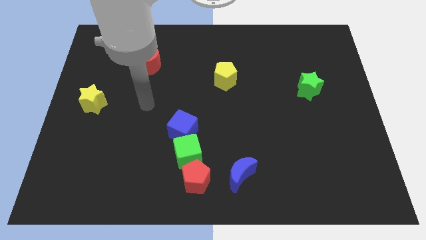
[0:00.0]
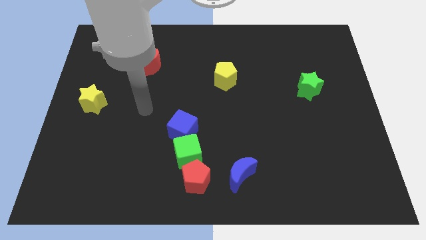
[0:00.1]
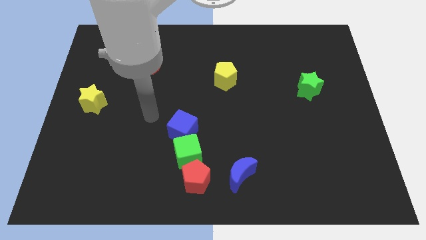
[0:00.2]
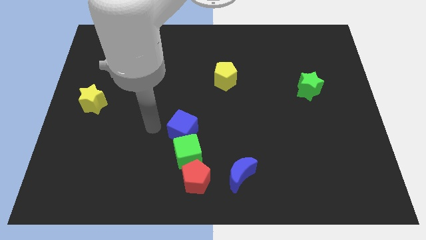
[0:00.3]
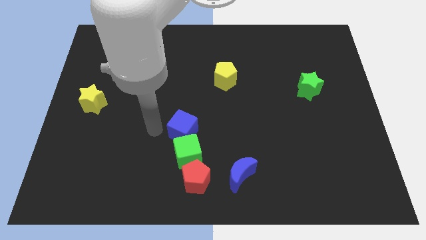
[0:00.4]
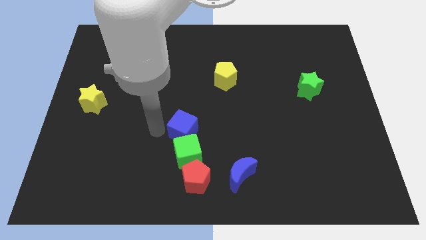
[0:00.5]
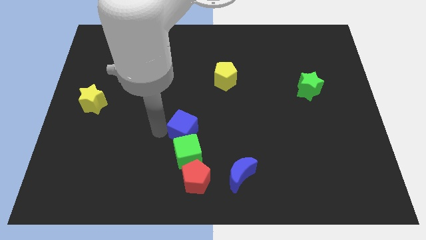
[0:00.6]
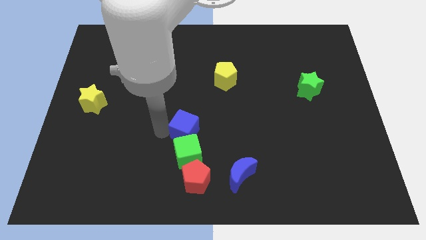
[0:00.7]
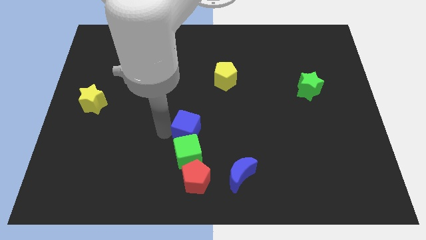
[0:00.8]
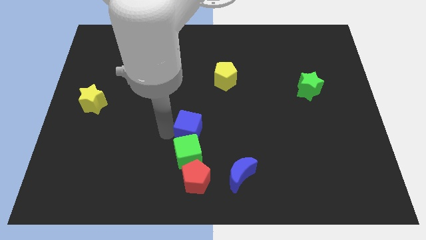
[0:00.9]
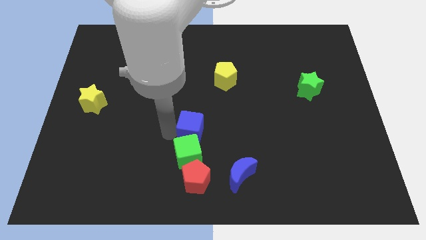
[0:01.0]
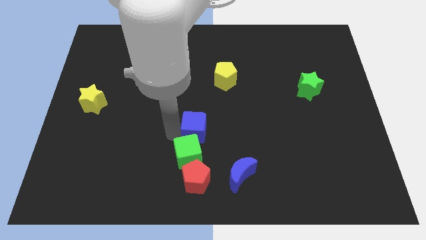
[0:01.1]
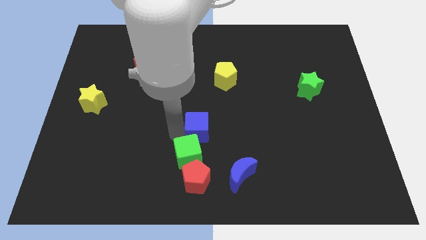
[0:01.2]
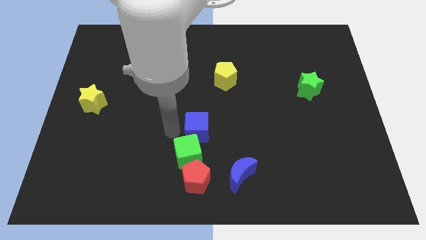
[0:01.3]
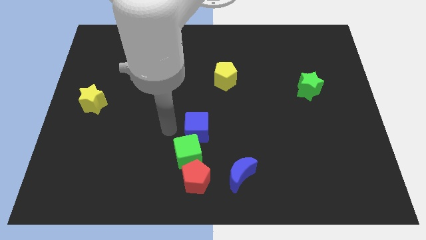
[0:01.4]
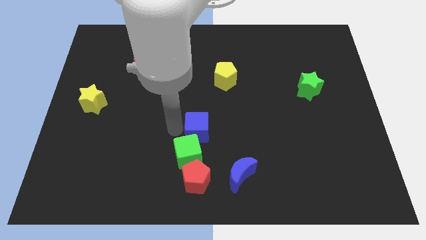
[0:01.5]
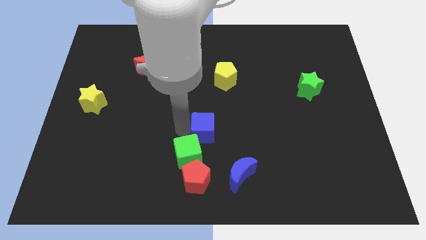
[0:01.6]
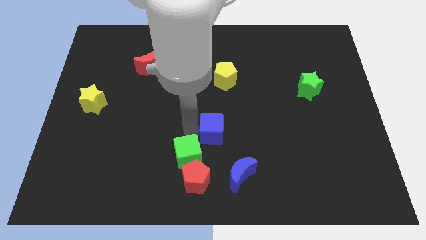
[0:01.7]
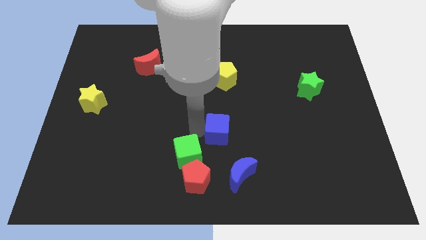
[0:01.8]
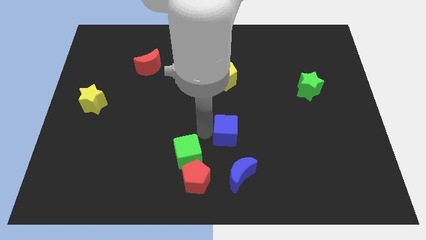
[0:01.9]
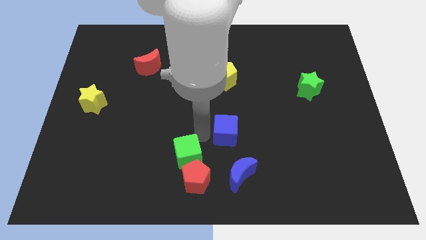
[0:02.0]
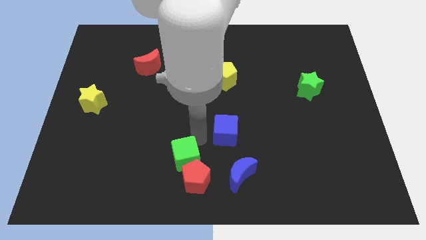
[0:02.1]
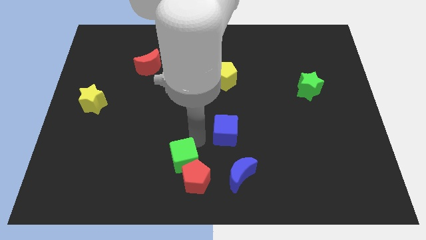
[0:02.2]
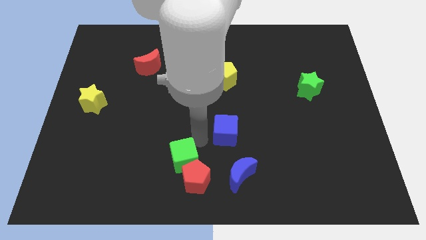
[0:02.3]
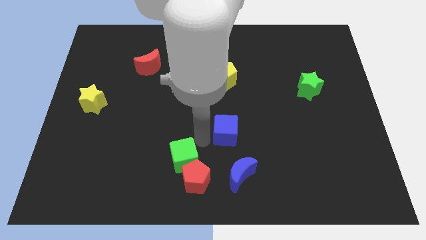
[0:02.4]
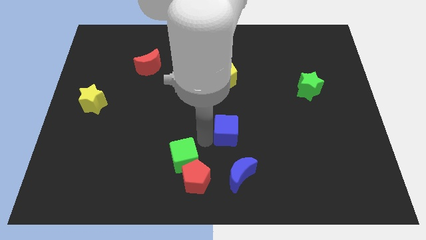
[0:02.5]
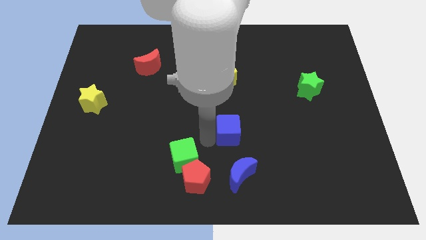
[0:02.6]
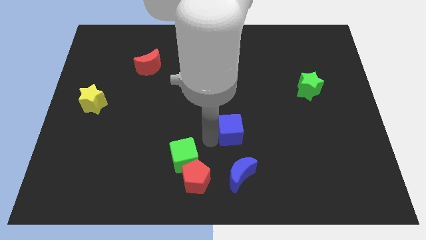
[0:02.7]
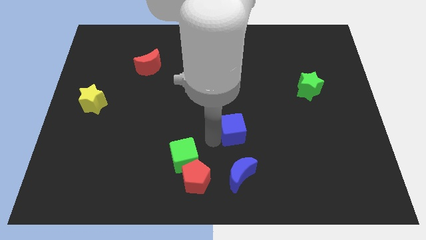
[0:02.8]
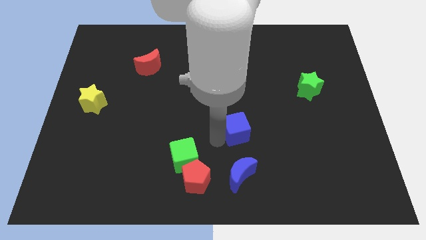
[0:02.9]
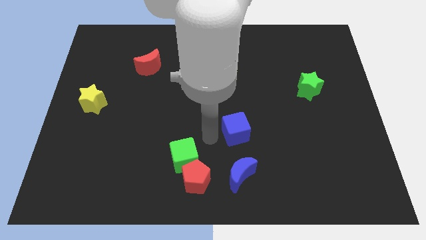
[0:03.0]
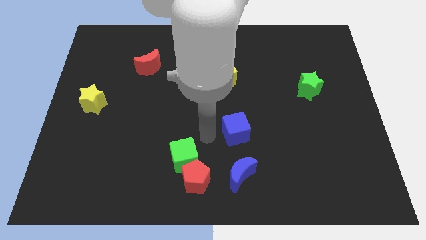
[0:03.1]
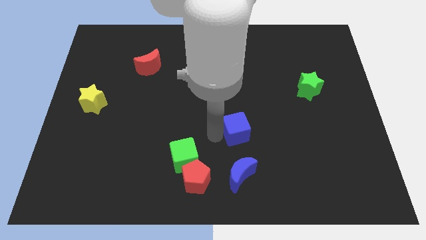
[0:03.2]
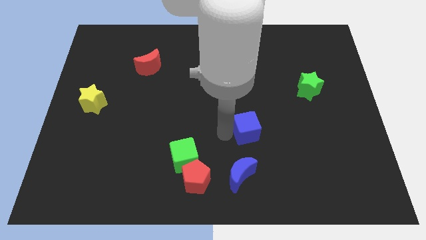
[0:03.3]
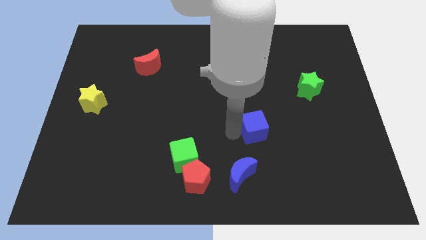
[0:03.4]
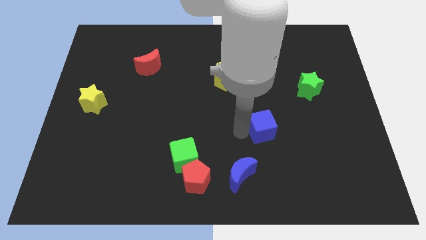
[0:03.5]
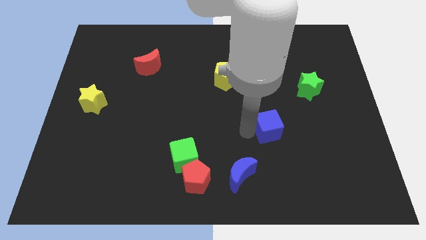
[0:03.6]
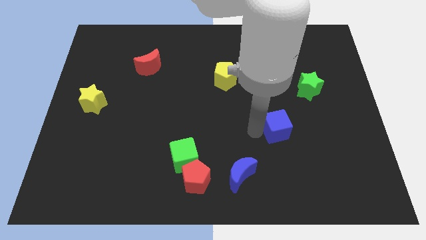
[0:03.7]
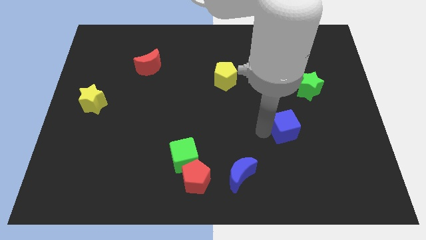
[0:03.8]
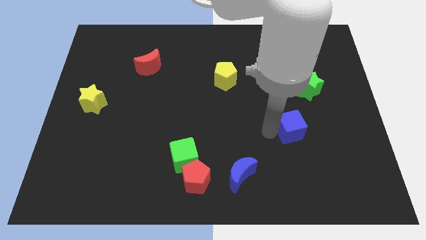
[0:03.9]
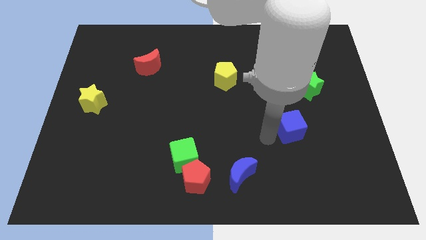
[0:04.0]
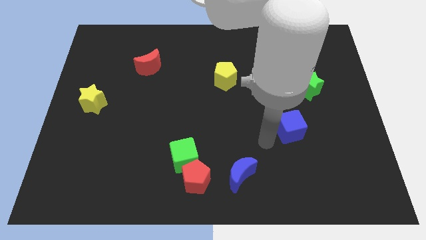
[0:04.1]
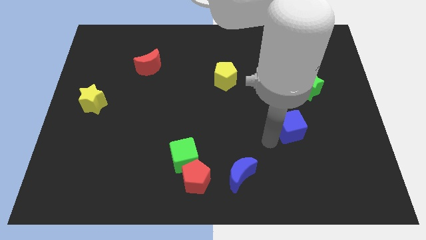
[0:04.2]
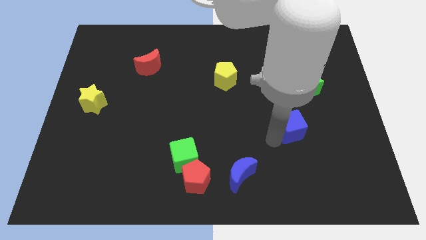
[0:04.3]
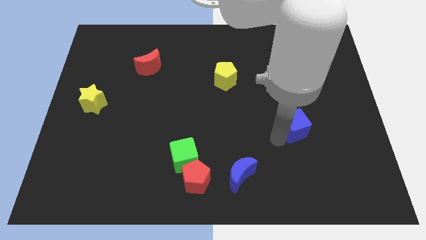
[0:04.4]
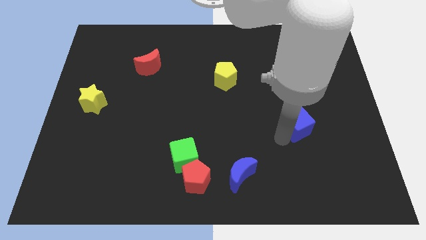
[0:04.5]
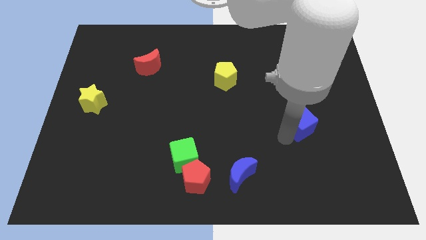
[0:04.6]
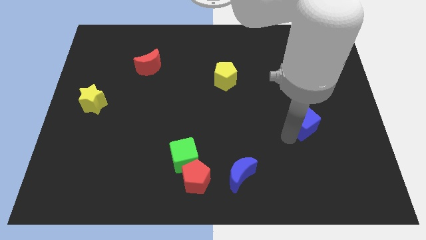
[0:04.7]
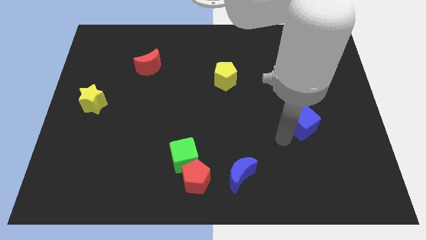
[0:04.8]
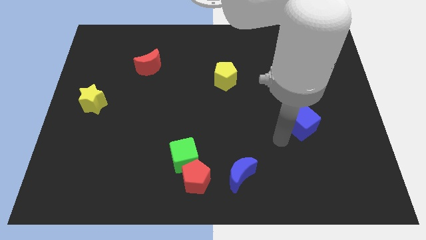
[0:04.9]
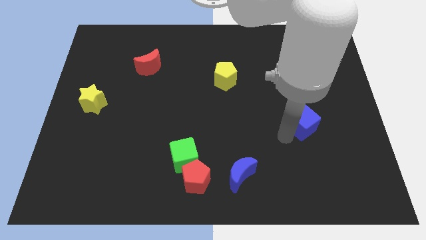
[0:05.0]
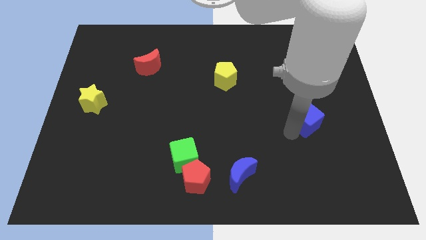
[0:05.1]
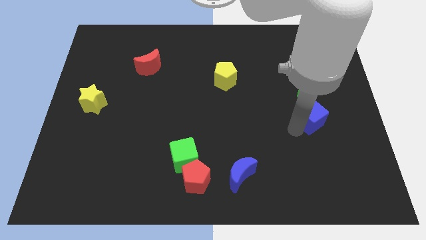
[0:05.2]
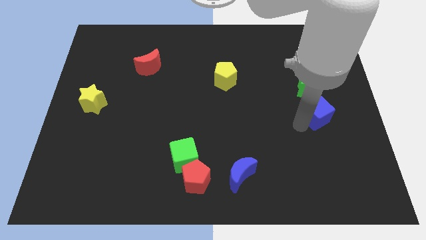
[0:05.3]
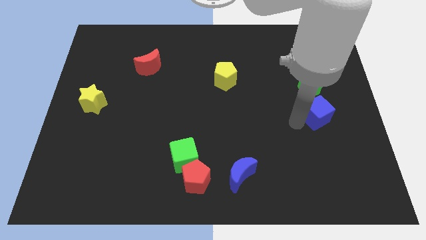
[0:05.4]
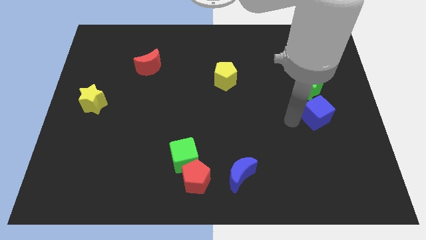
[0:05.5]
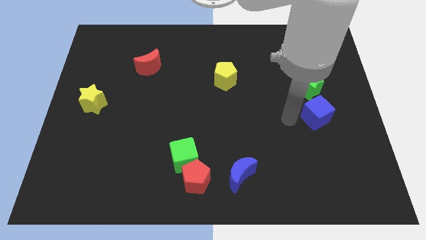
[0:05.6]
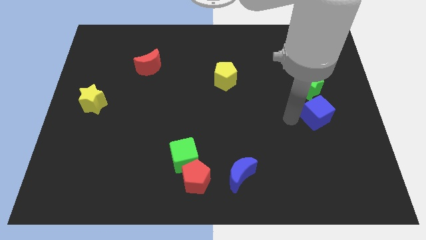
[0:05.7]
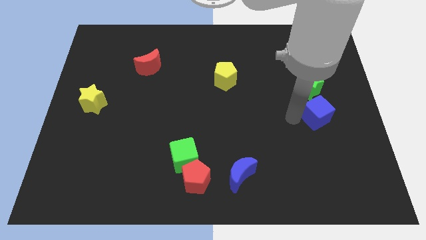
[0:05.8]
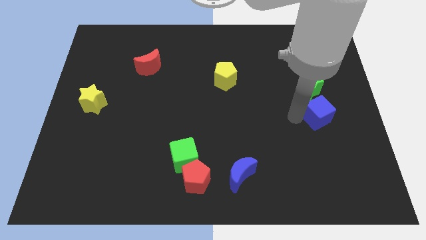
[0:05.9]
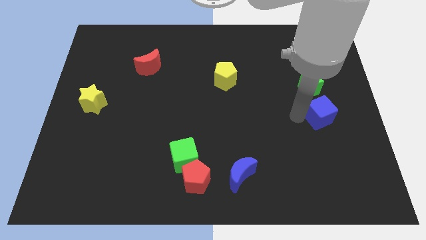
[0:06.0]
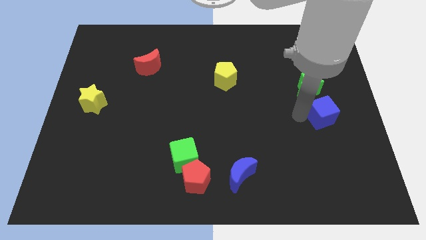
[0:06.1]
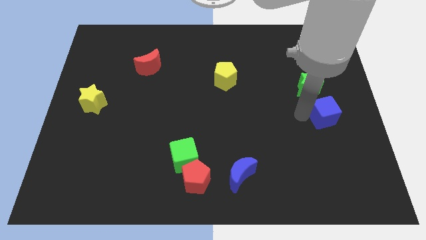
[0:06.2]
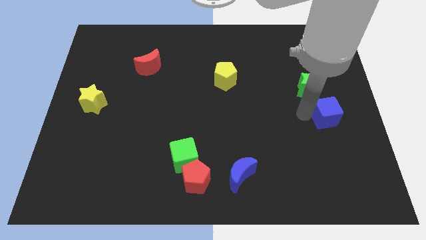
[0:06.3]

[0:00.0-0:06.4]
push the blue cube to the center right
